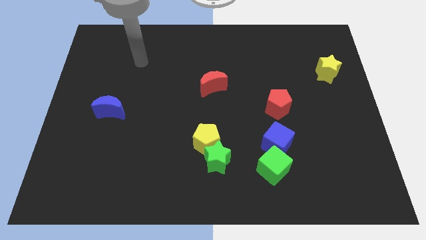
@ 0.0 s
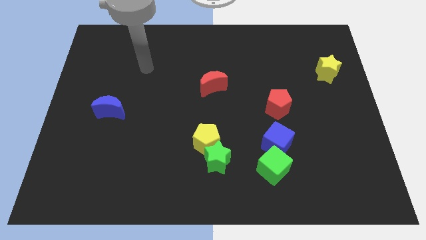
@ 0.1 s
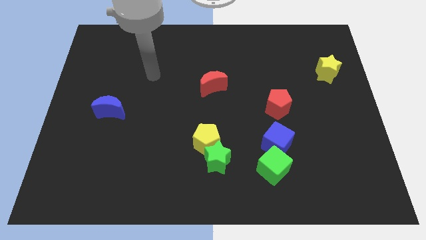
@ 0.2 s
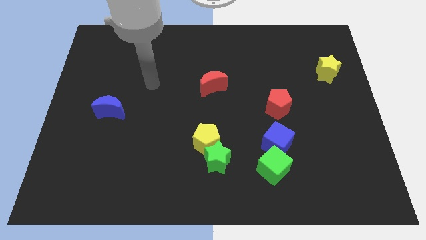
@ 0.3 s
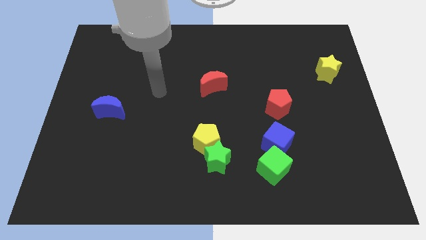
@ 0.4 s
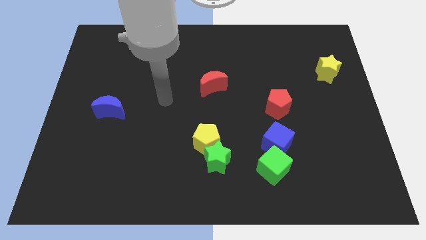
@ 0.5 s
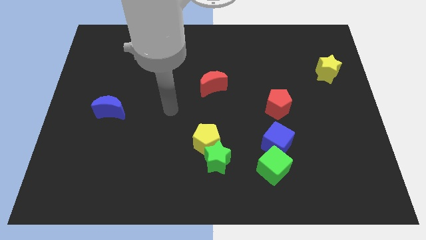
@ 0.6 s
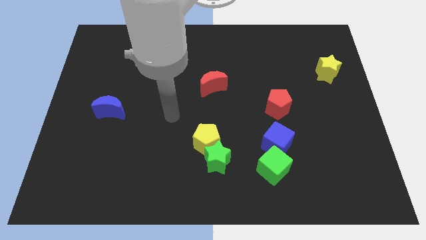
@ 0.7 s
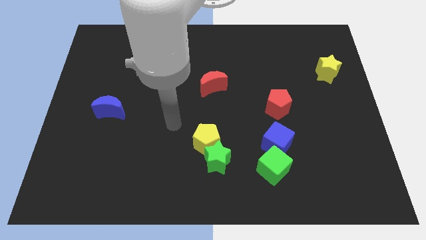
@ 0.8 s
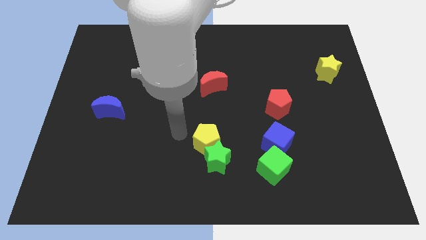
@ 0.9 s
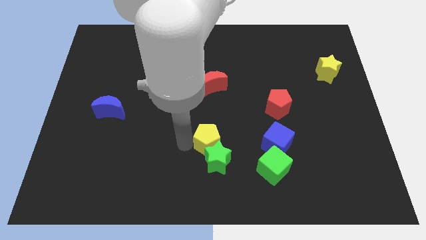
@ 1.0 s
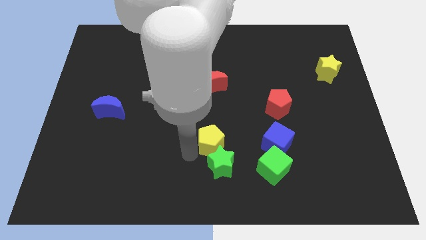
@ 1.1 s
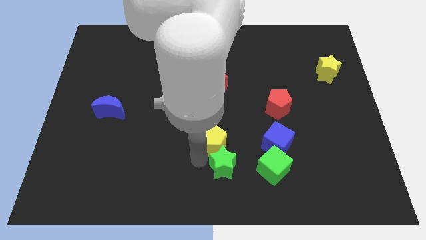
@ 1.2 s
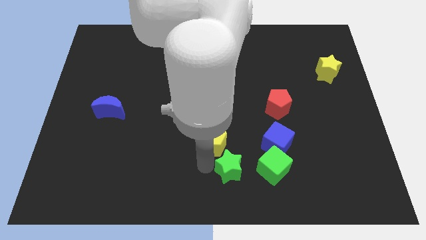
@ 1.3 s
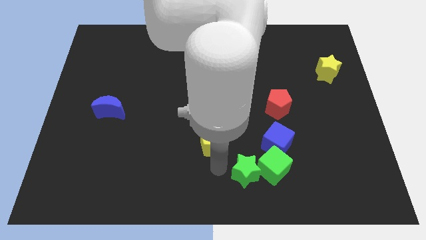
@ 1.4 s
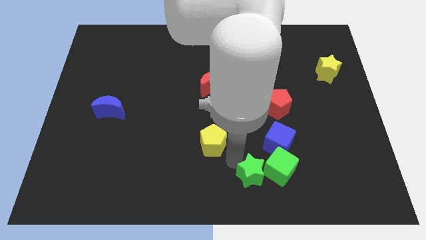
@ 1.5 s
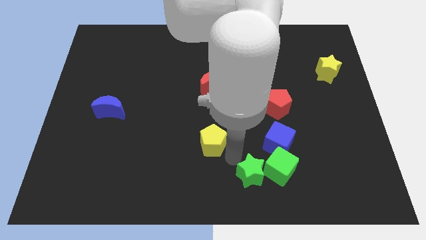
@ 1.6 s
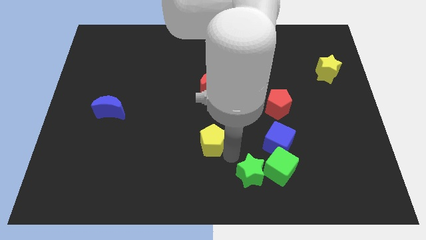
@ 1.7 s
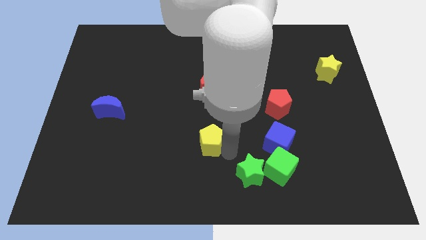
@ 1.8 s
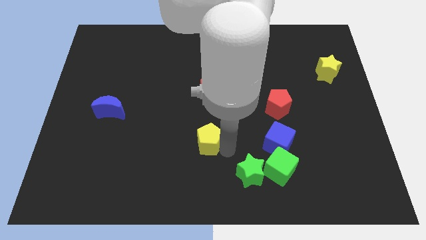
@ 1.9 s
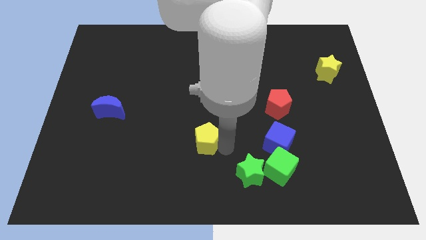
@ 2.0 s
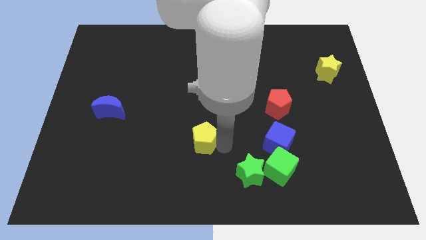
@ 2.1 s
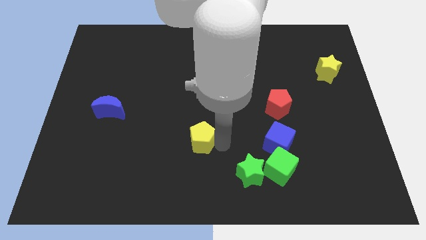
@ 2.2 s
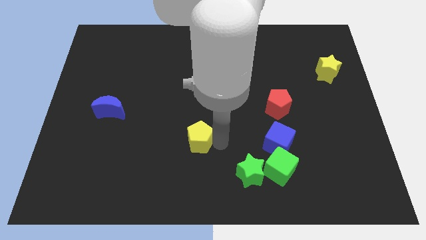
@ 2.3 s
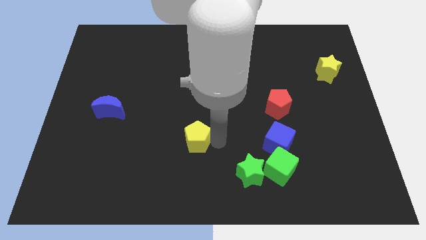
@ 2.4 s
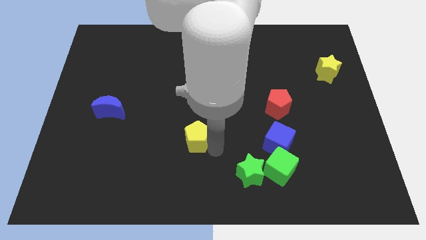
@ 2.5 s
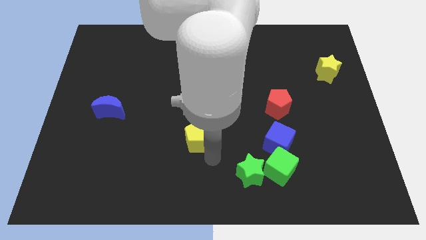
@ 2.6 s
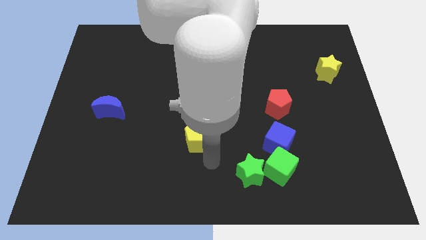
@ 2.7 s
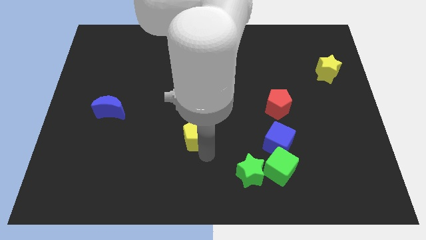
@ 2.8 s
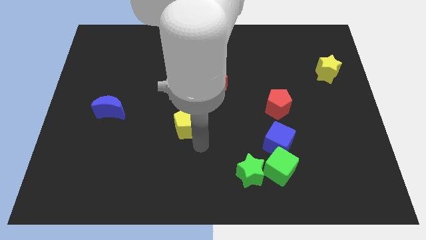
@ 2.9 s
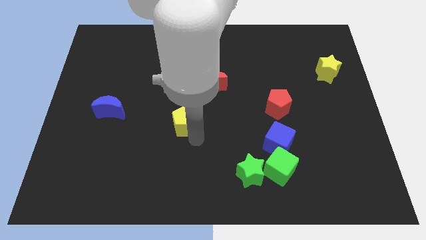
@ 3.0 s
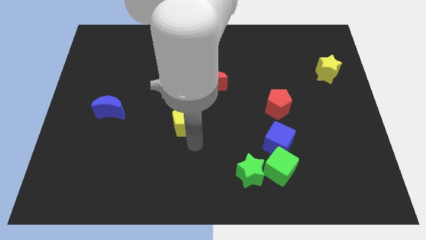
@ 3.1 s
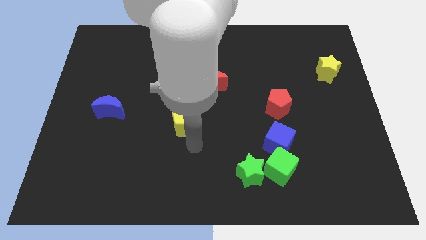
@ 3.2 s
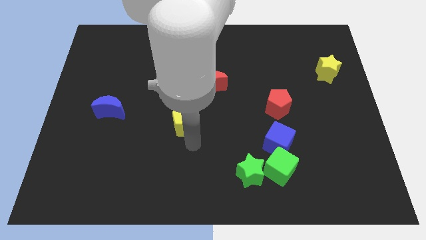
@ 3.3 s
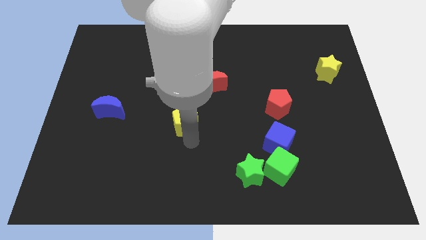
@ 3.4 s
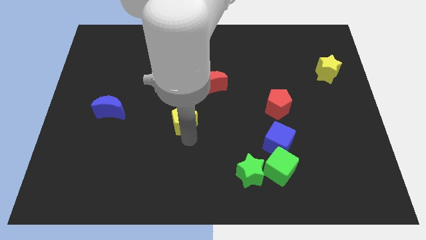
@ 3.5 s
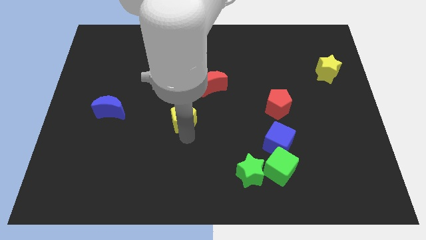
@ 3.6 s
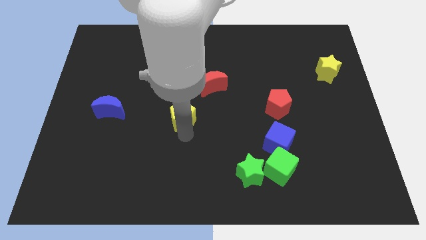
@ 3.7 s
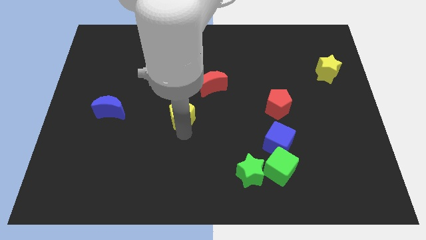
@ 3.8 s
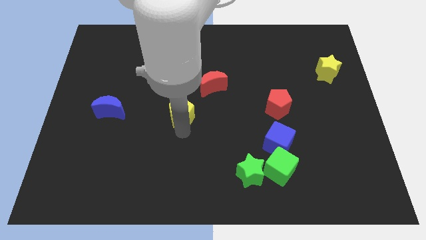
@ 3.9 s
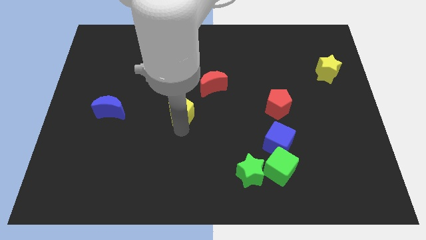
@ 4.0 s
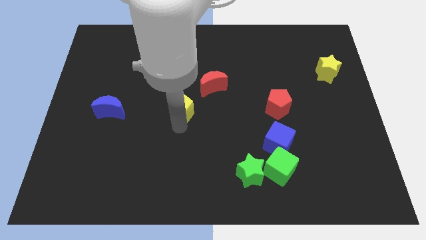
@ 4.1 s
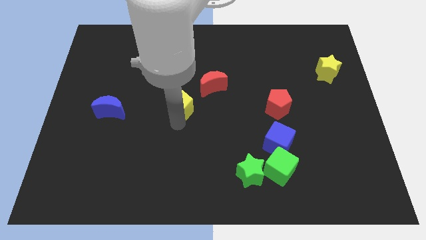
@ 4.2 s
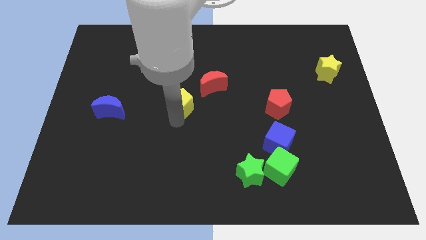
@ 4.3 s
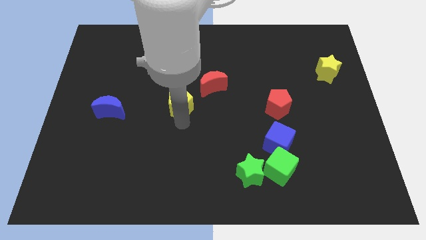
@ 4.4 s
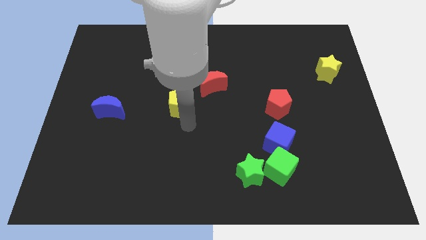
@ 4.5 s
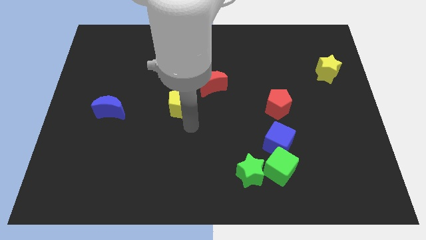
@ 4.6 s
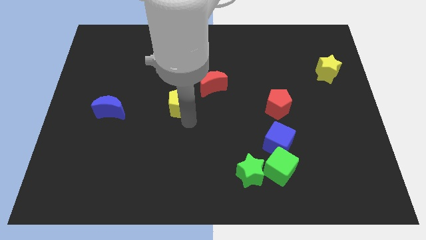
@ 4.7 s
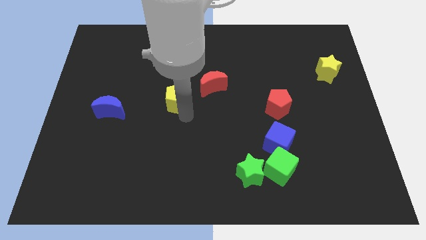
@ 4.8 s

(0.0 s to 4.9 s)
push the yellow pentagon just left of the red moon

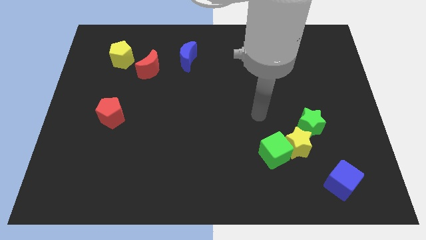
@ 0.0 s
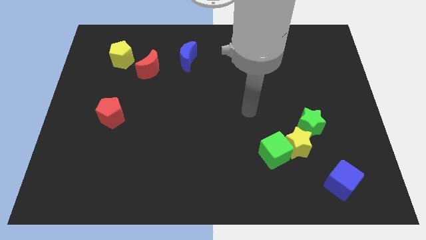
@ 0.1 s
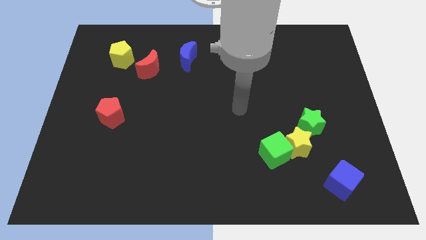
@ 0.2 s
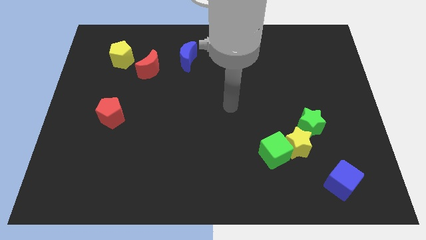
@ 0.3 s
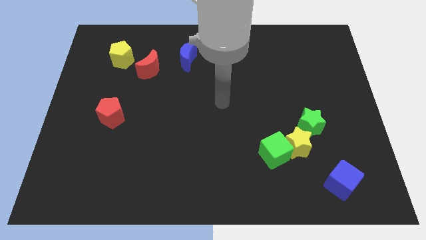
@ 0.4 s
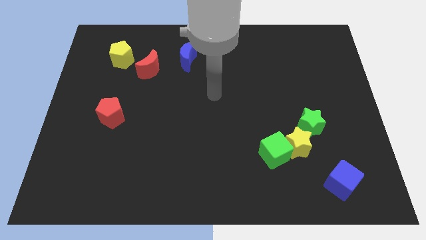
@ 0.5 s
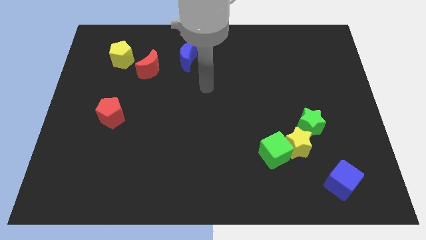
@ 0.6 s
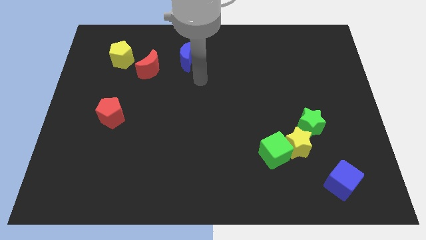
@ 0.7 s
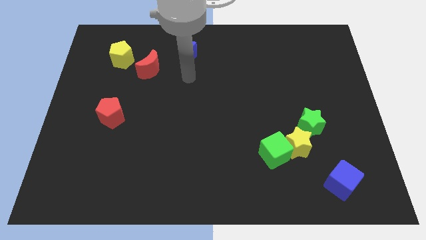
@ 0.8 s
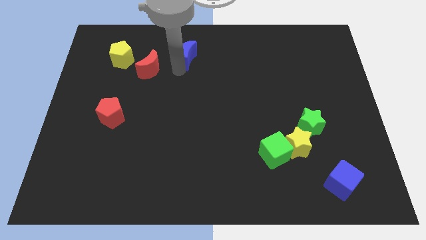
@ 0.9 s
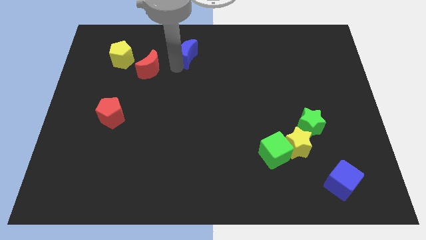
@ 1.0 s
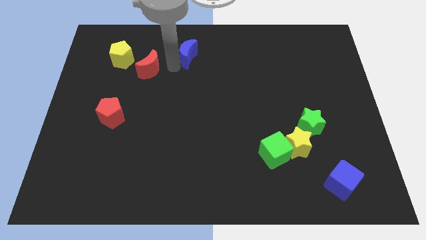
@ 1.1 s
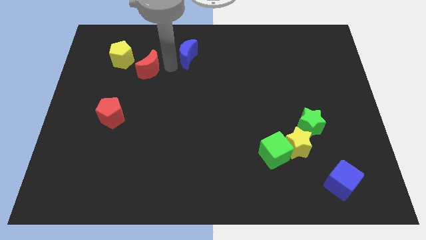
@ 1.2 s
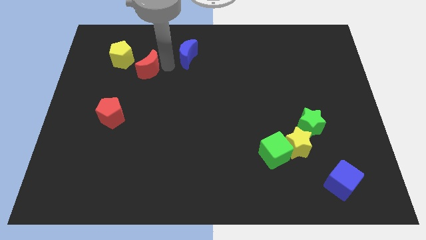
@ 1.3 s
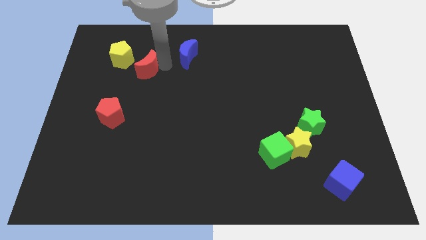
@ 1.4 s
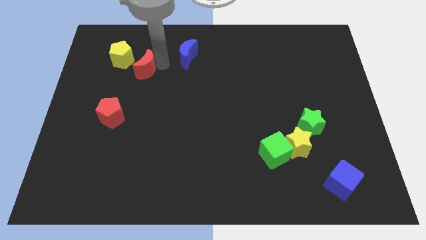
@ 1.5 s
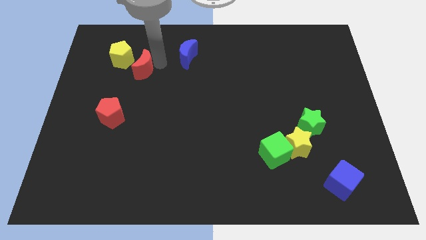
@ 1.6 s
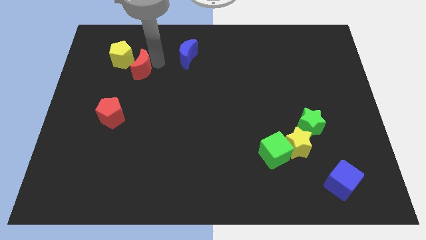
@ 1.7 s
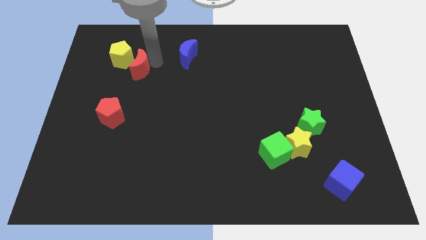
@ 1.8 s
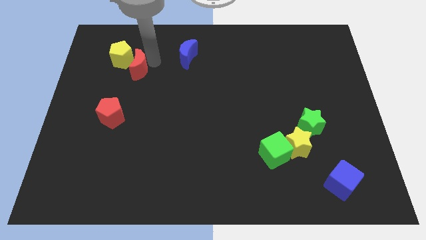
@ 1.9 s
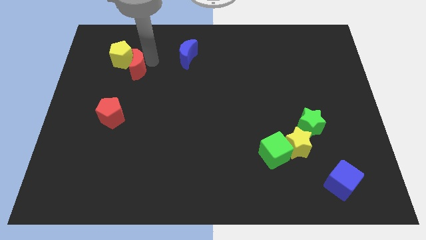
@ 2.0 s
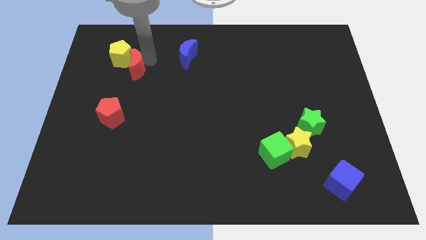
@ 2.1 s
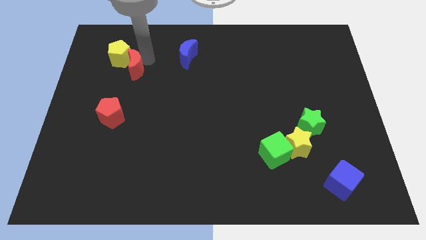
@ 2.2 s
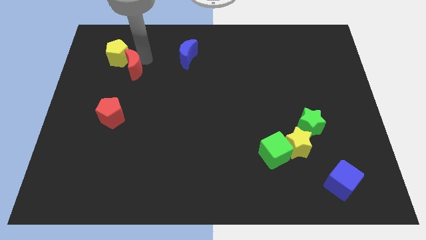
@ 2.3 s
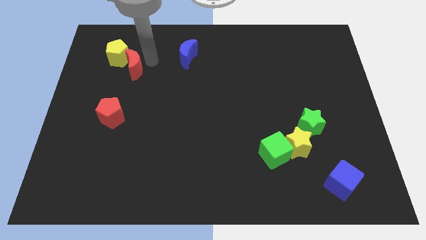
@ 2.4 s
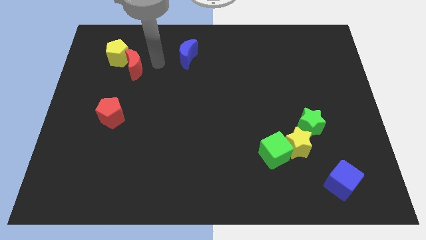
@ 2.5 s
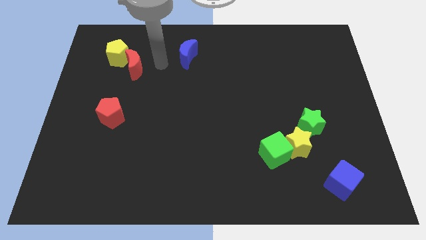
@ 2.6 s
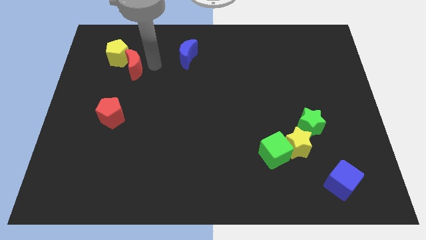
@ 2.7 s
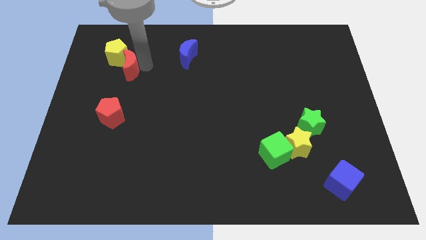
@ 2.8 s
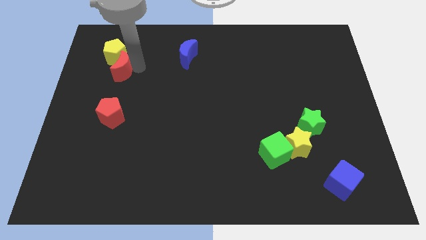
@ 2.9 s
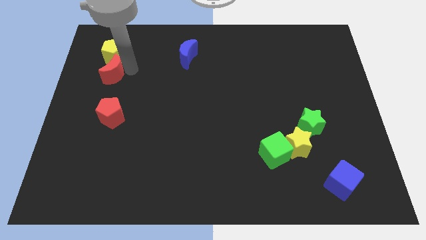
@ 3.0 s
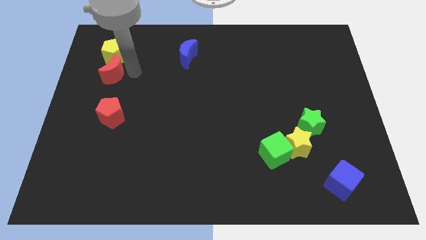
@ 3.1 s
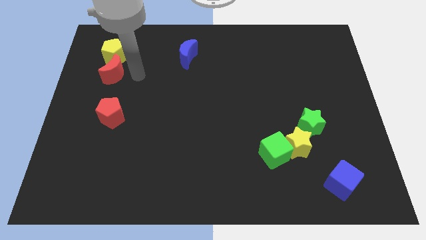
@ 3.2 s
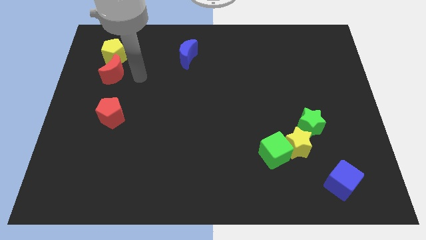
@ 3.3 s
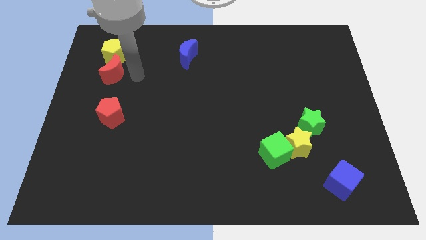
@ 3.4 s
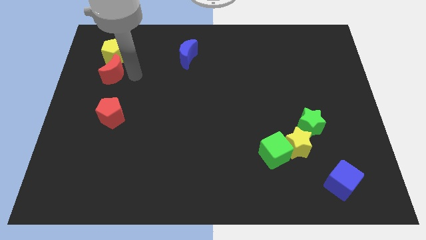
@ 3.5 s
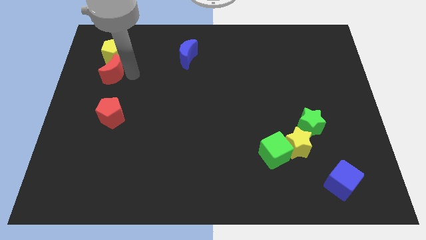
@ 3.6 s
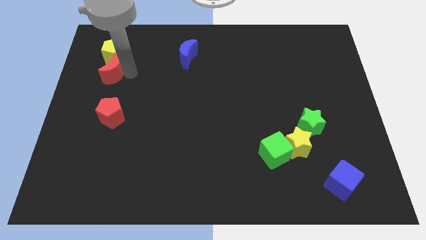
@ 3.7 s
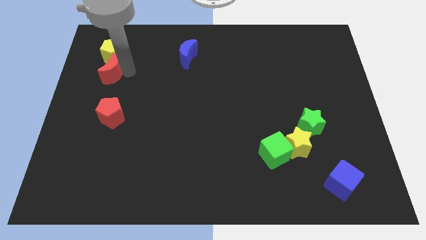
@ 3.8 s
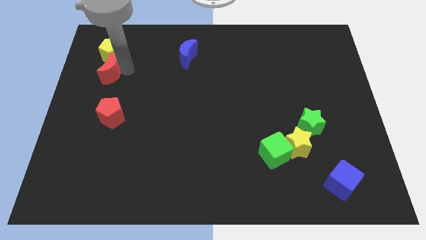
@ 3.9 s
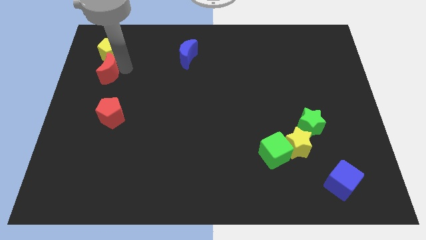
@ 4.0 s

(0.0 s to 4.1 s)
move the red moon diagonally down and to the left of the yellow pentagon
